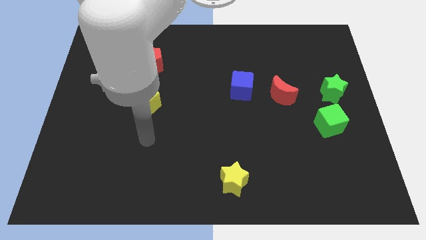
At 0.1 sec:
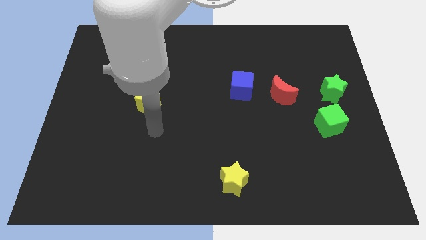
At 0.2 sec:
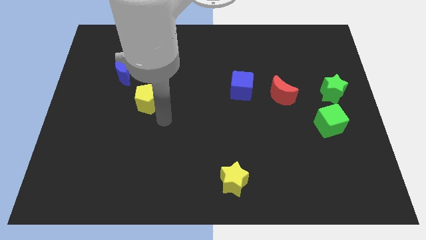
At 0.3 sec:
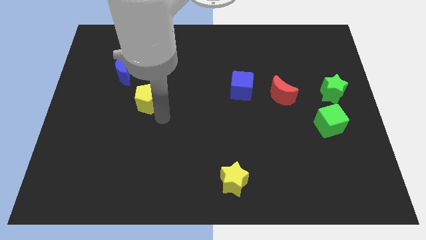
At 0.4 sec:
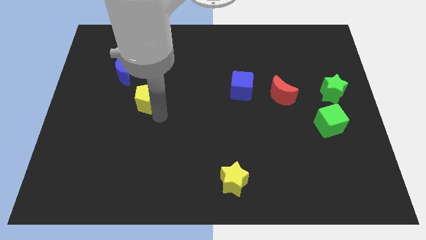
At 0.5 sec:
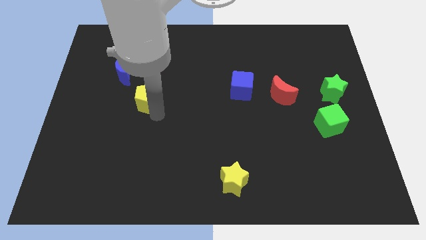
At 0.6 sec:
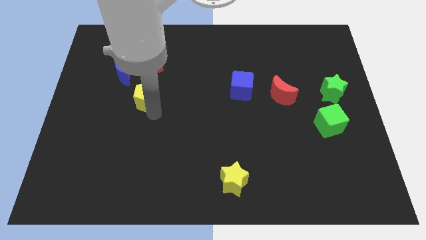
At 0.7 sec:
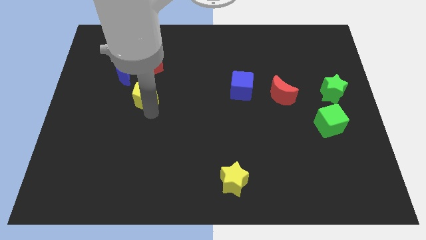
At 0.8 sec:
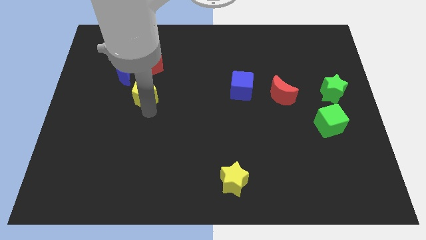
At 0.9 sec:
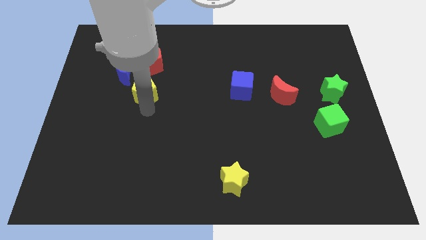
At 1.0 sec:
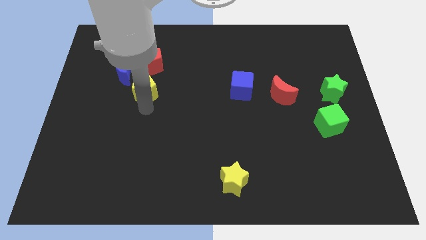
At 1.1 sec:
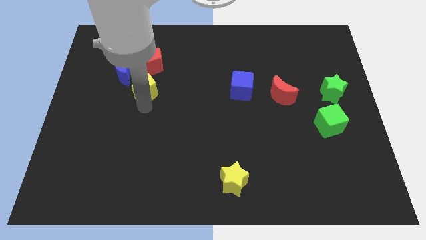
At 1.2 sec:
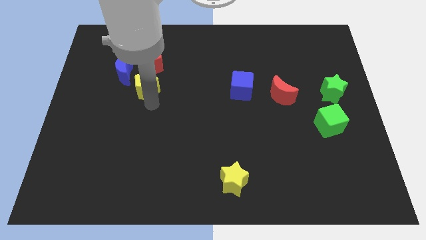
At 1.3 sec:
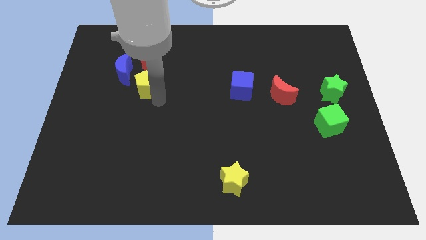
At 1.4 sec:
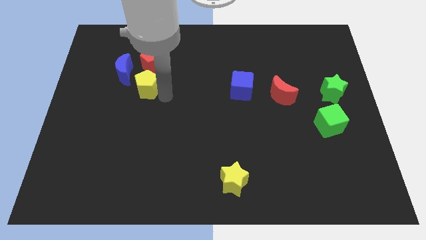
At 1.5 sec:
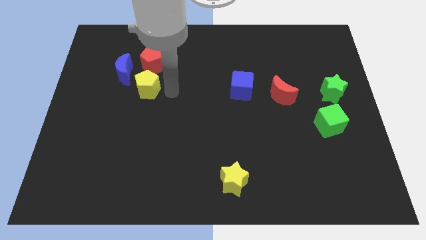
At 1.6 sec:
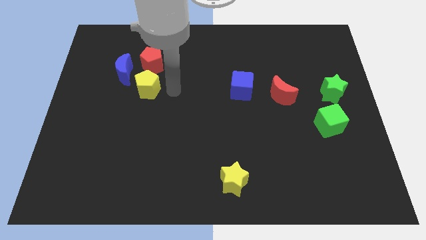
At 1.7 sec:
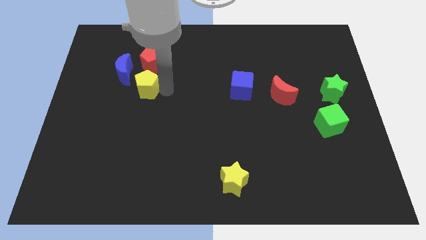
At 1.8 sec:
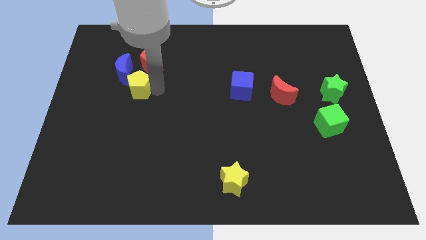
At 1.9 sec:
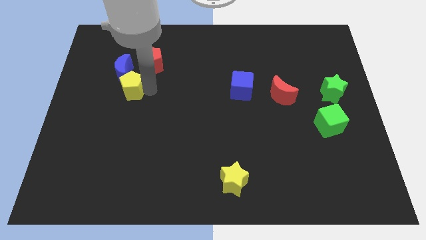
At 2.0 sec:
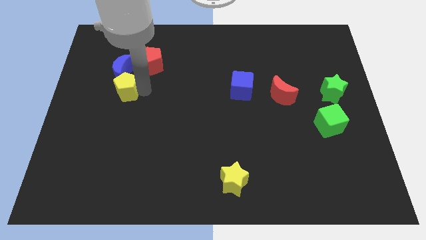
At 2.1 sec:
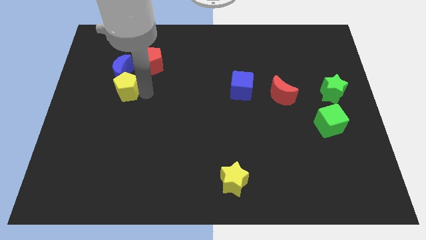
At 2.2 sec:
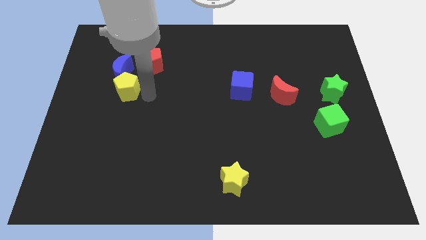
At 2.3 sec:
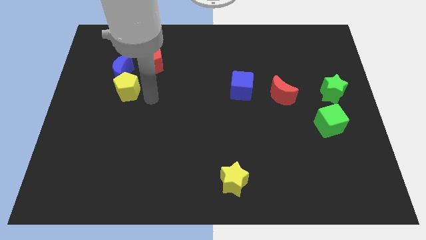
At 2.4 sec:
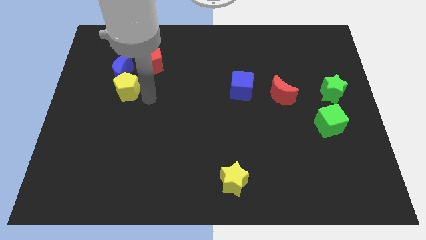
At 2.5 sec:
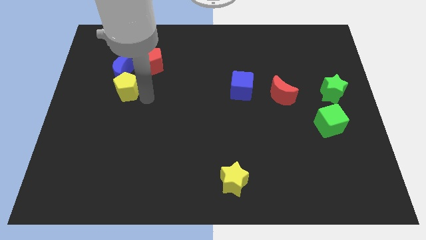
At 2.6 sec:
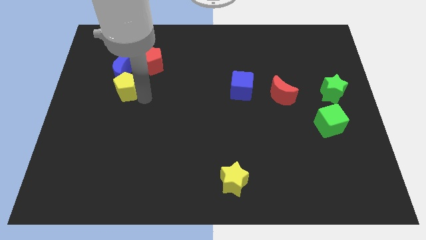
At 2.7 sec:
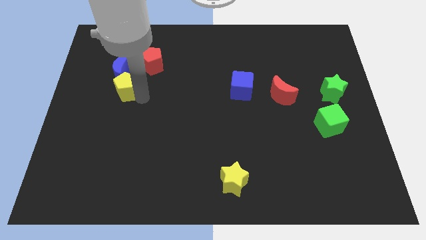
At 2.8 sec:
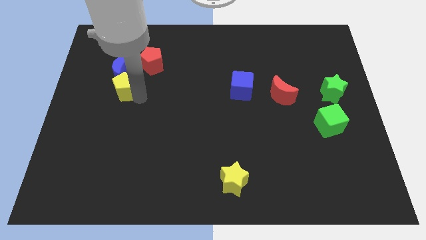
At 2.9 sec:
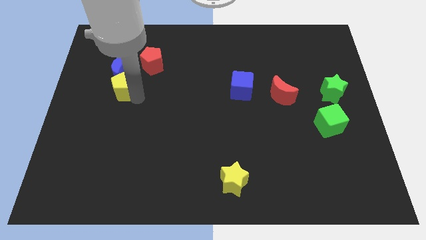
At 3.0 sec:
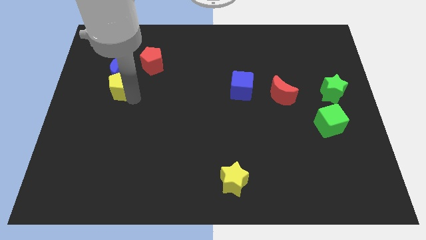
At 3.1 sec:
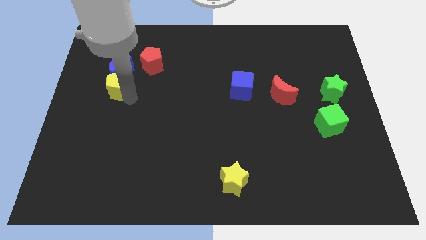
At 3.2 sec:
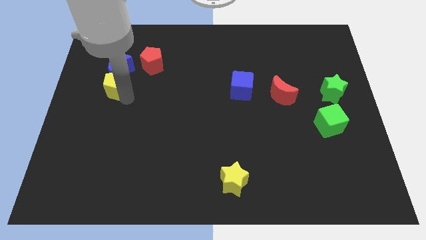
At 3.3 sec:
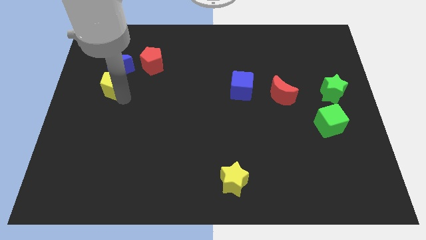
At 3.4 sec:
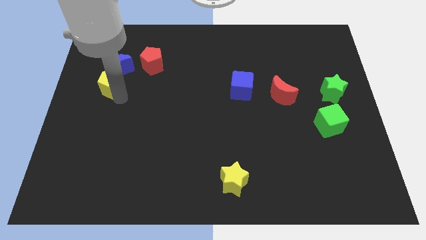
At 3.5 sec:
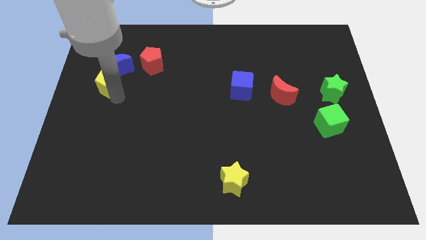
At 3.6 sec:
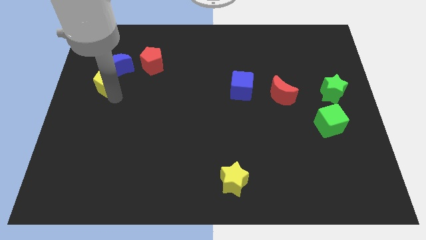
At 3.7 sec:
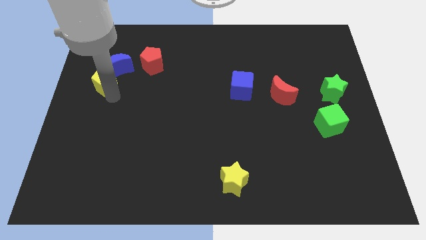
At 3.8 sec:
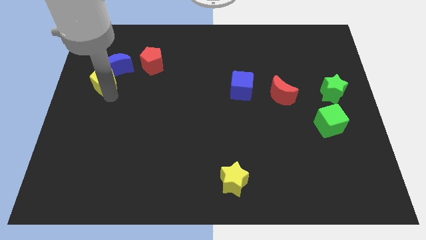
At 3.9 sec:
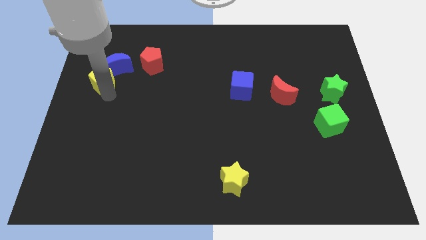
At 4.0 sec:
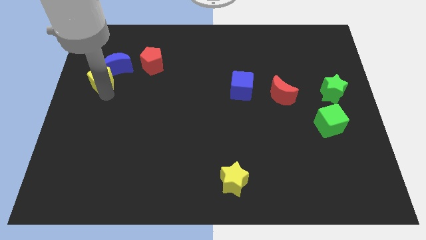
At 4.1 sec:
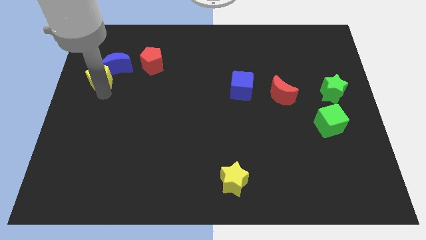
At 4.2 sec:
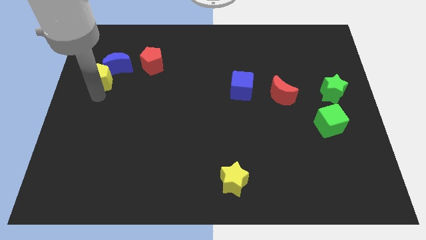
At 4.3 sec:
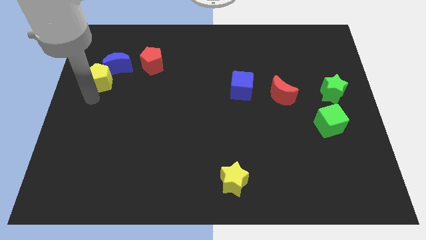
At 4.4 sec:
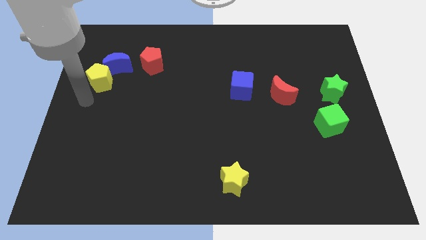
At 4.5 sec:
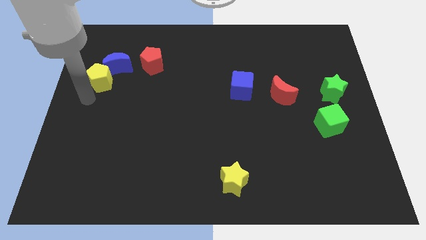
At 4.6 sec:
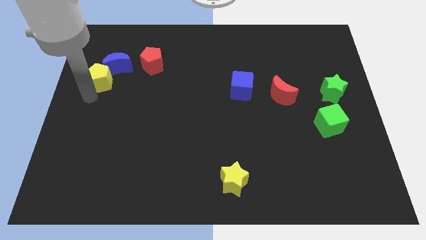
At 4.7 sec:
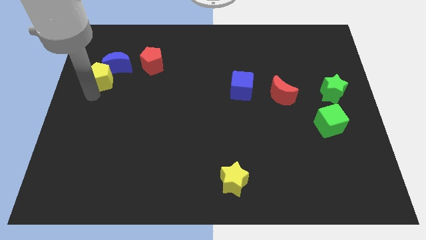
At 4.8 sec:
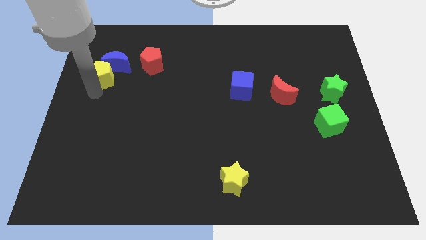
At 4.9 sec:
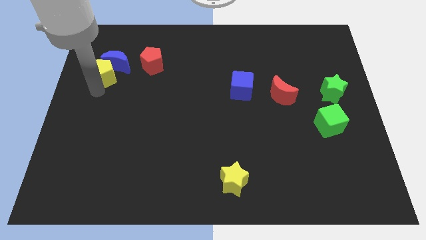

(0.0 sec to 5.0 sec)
slide the yellow pentagon to the left of the red pentagon

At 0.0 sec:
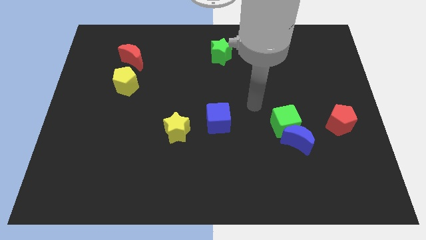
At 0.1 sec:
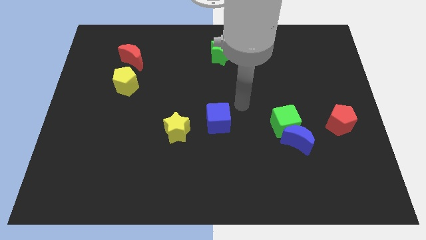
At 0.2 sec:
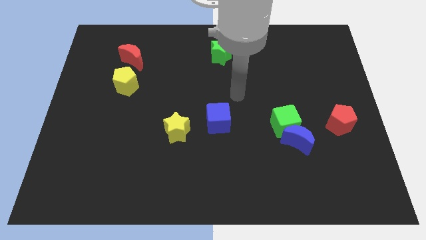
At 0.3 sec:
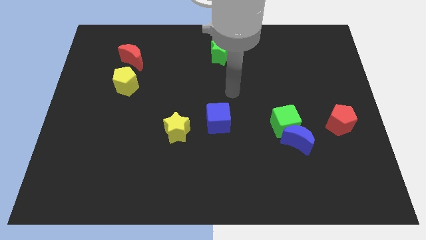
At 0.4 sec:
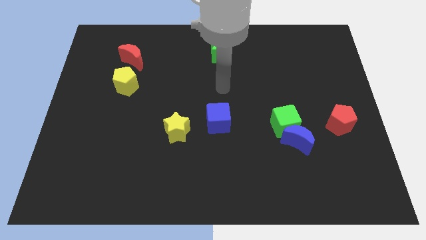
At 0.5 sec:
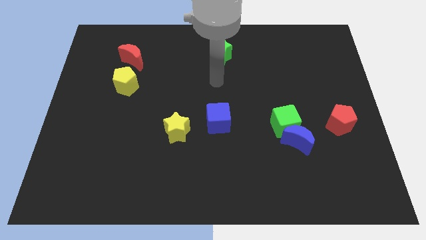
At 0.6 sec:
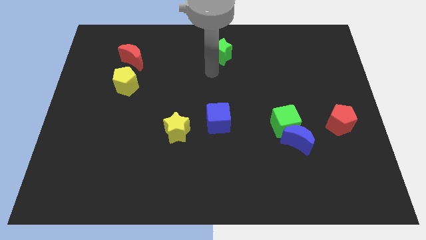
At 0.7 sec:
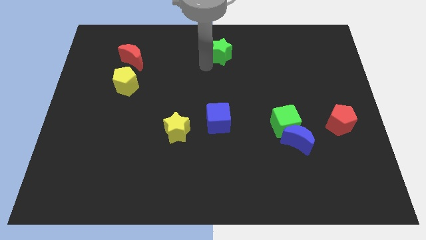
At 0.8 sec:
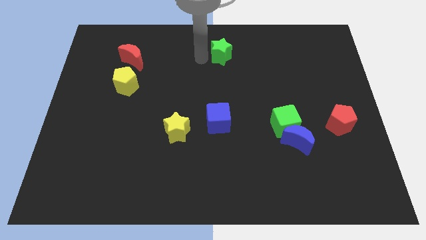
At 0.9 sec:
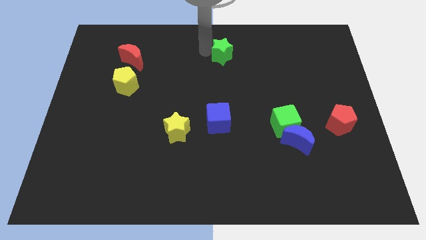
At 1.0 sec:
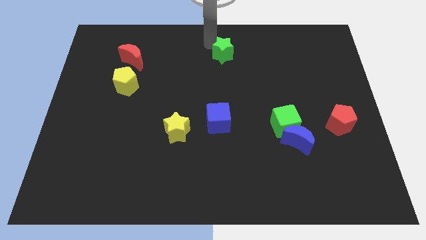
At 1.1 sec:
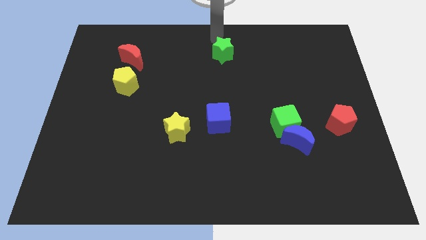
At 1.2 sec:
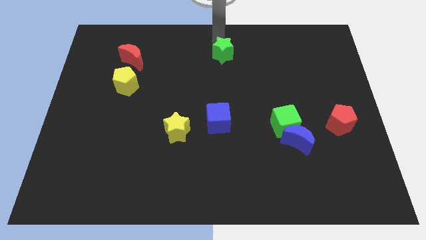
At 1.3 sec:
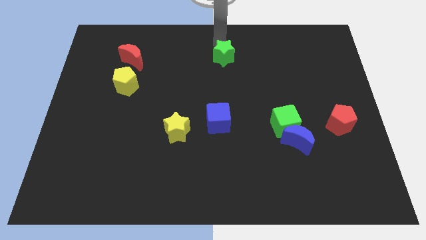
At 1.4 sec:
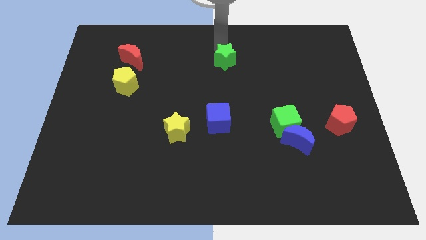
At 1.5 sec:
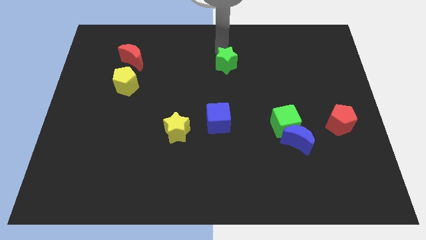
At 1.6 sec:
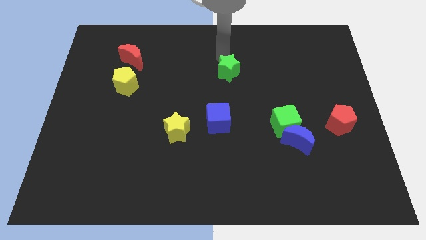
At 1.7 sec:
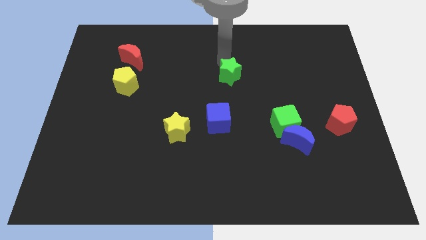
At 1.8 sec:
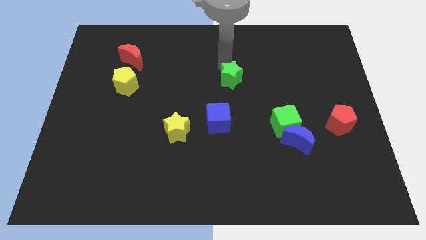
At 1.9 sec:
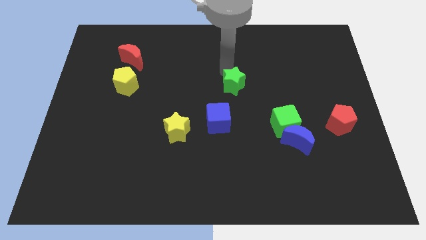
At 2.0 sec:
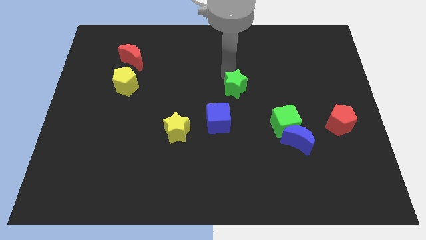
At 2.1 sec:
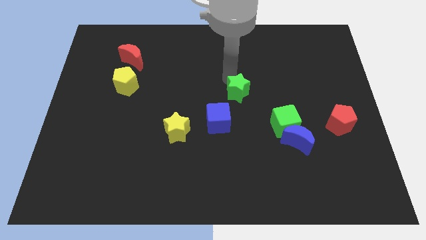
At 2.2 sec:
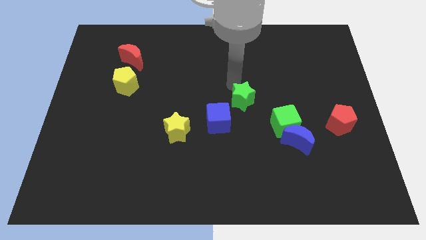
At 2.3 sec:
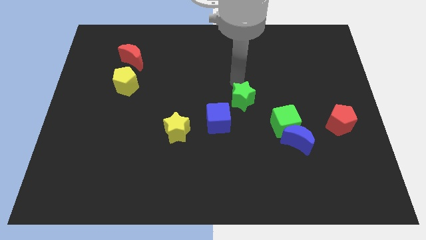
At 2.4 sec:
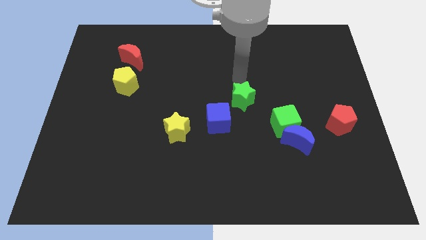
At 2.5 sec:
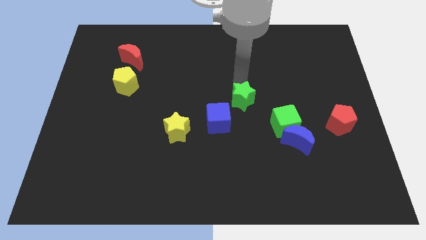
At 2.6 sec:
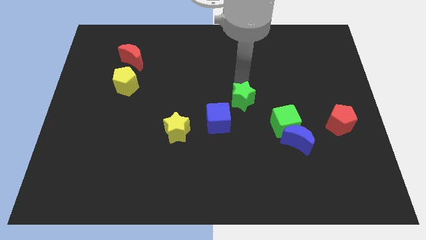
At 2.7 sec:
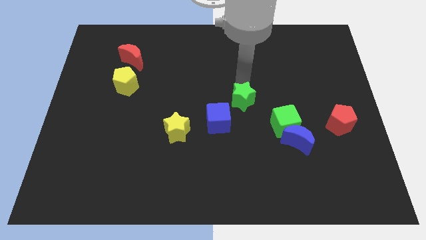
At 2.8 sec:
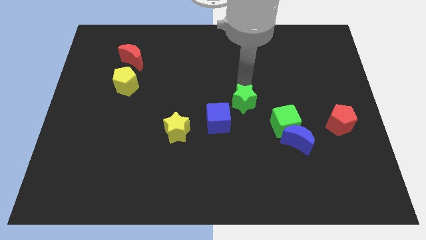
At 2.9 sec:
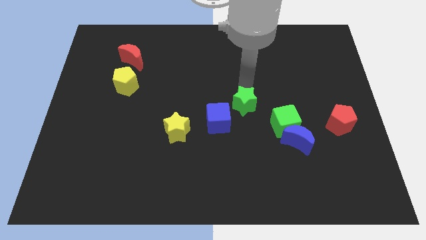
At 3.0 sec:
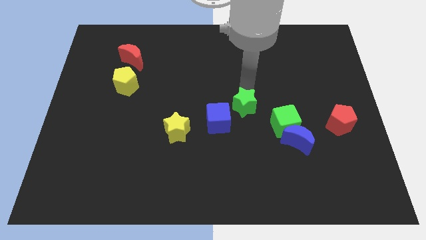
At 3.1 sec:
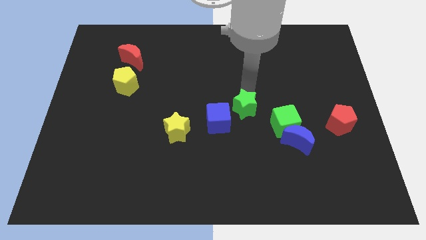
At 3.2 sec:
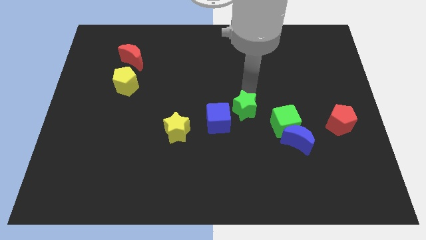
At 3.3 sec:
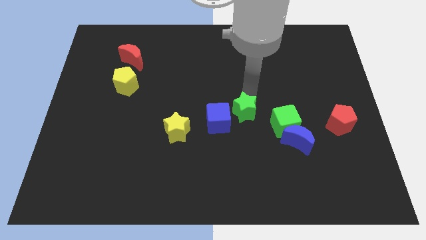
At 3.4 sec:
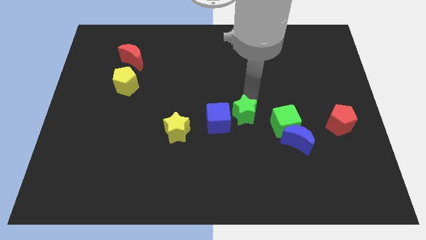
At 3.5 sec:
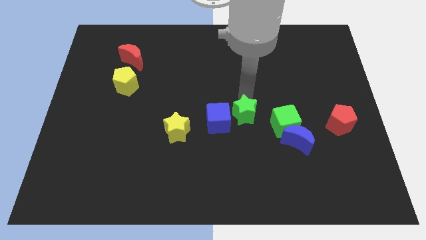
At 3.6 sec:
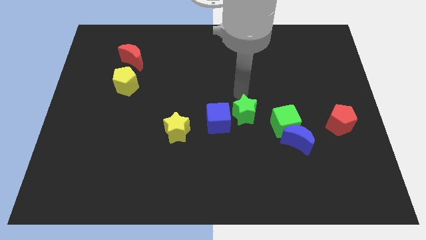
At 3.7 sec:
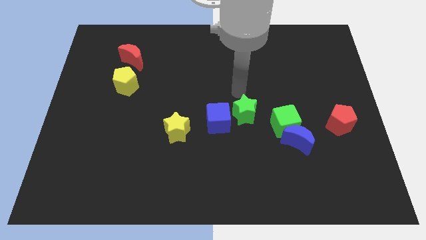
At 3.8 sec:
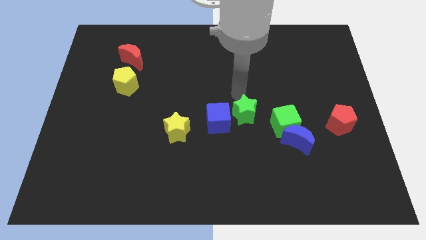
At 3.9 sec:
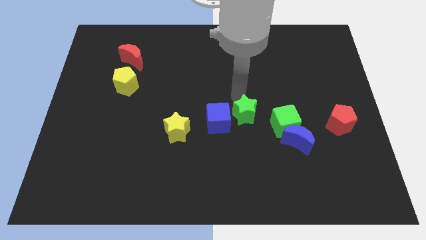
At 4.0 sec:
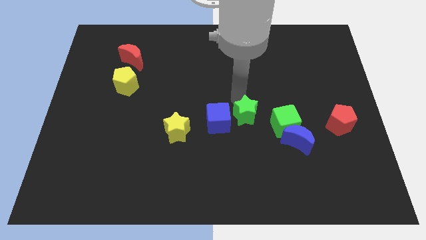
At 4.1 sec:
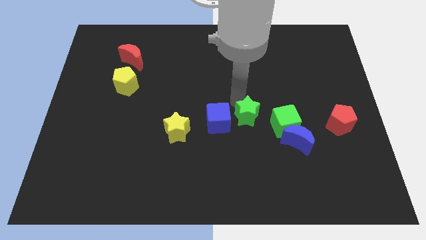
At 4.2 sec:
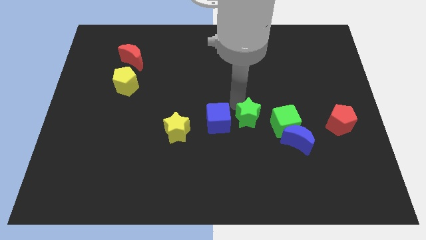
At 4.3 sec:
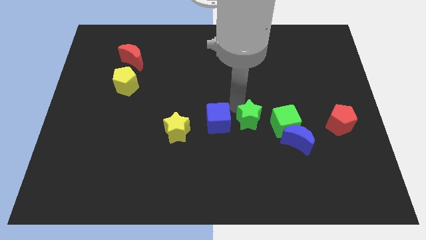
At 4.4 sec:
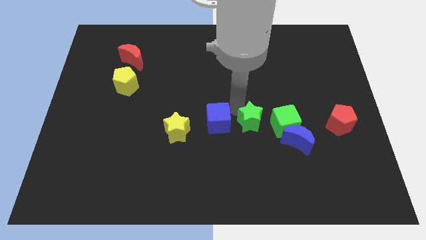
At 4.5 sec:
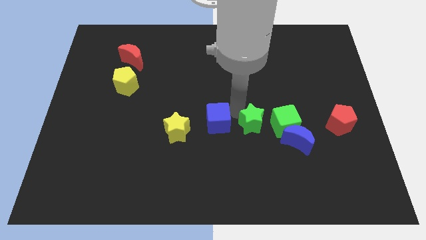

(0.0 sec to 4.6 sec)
push the green star to the left side of the blue moon
